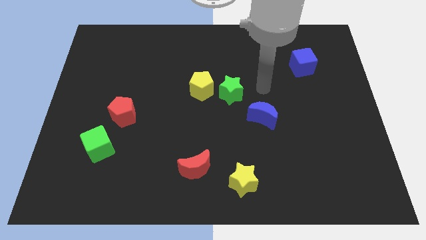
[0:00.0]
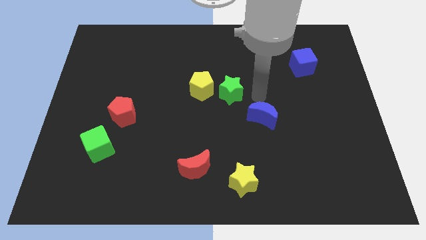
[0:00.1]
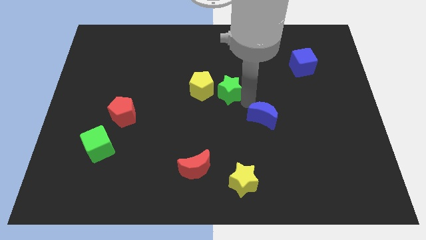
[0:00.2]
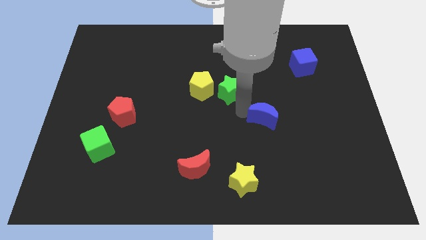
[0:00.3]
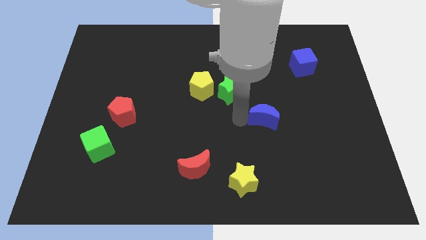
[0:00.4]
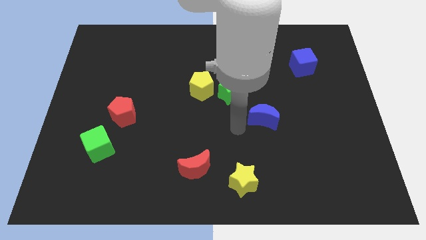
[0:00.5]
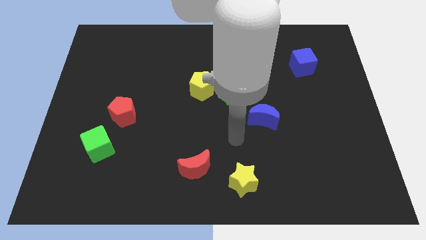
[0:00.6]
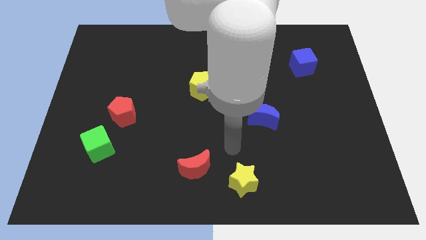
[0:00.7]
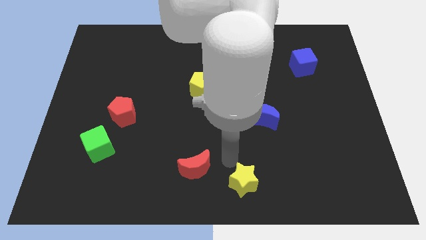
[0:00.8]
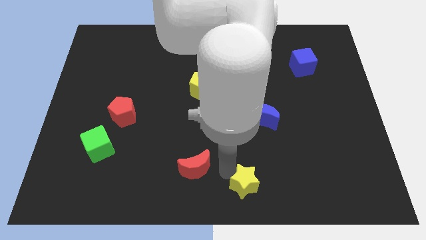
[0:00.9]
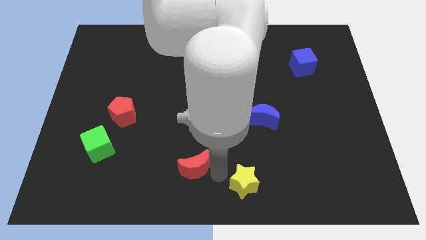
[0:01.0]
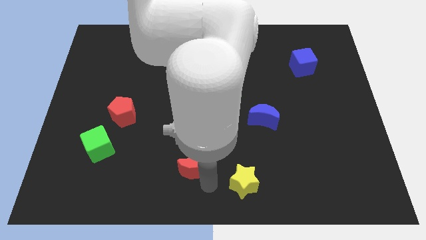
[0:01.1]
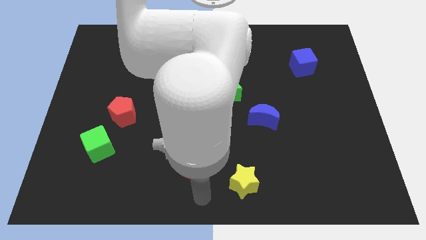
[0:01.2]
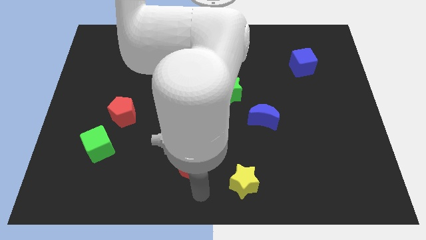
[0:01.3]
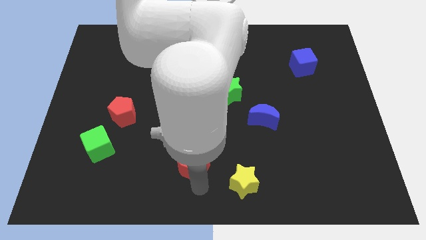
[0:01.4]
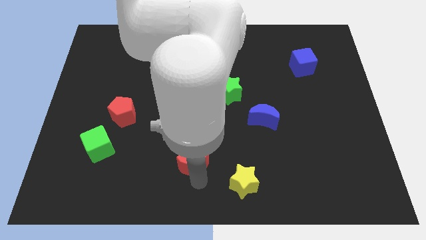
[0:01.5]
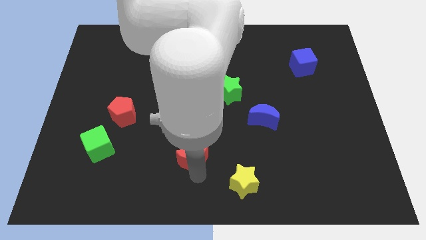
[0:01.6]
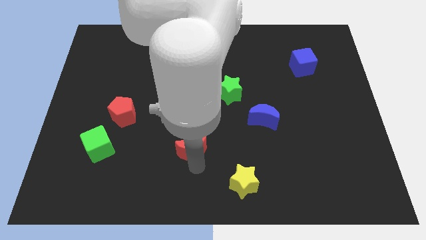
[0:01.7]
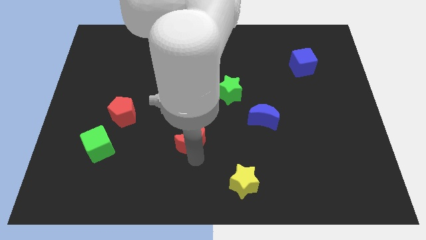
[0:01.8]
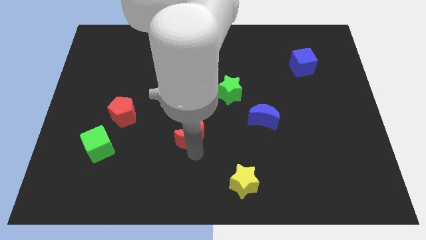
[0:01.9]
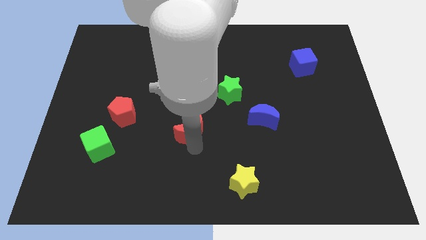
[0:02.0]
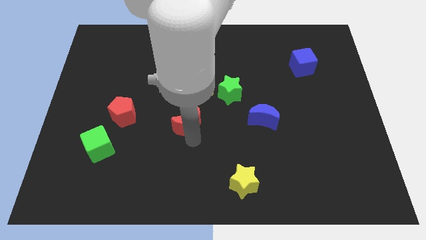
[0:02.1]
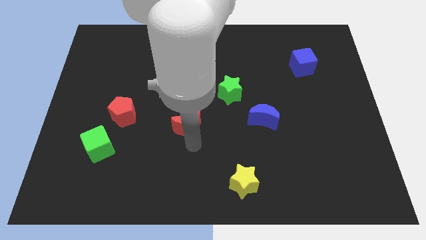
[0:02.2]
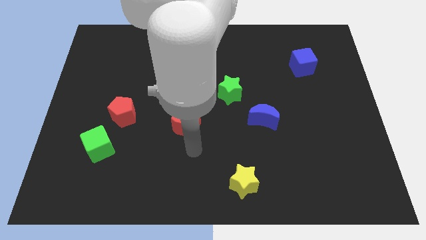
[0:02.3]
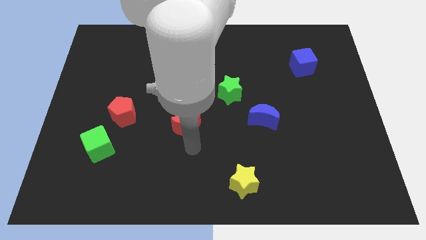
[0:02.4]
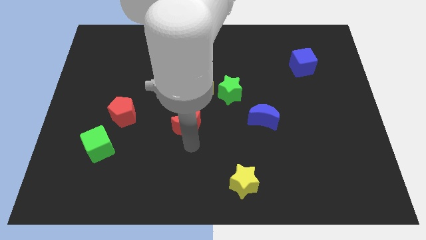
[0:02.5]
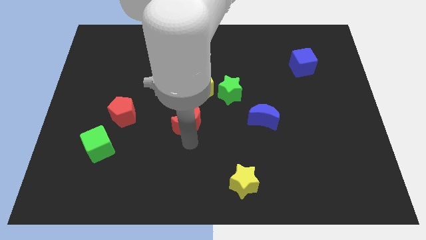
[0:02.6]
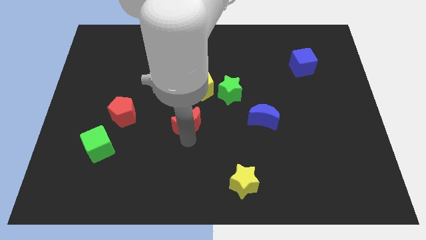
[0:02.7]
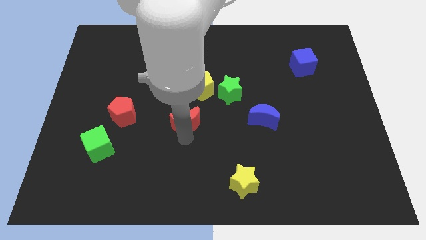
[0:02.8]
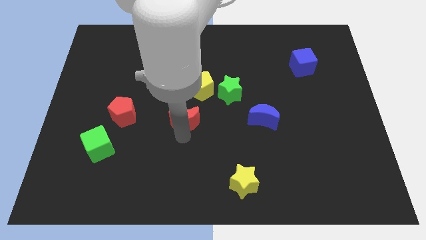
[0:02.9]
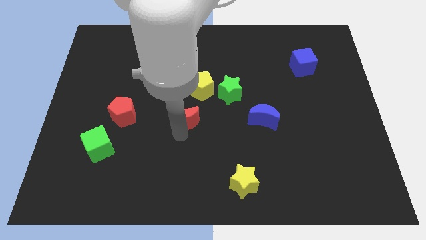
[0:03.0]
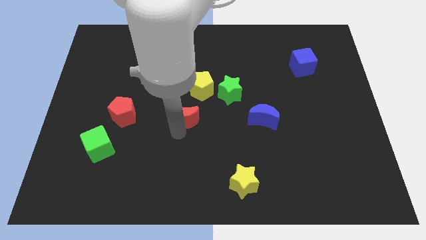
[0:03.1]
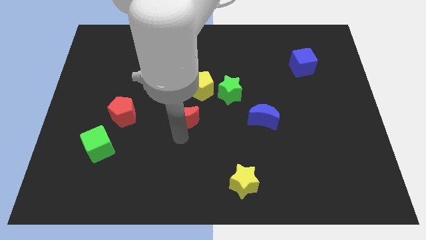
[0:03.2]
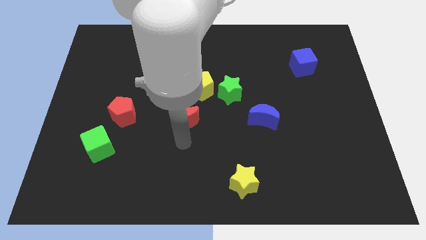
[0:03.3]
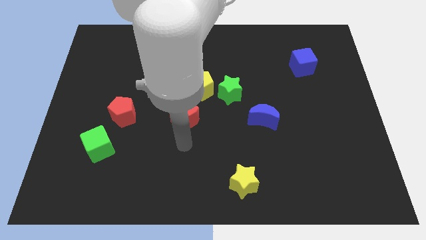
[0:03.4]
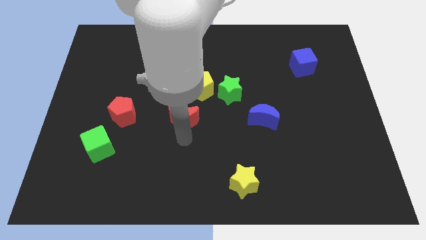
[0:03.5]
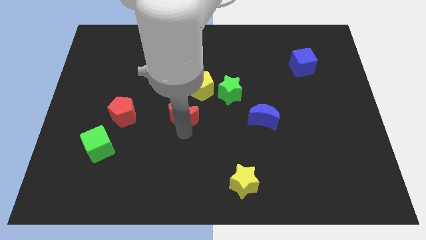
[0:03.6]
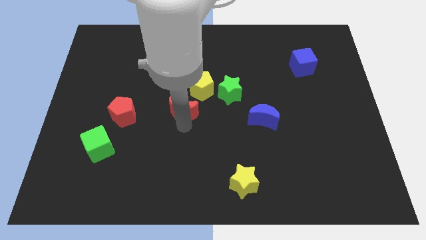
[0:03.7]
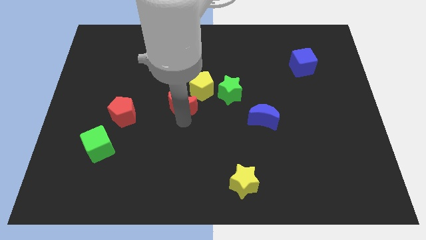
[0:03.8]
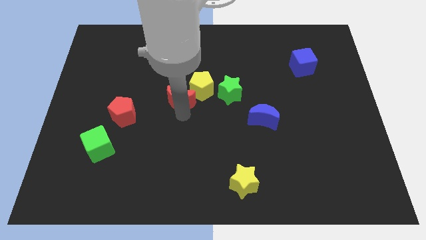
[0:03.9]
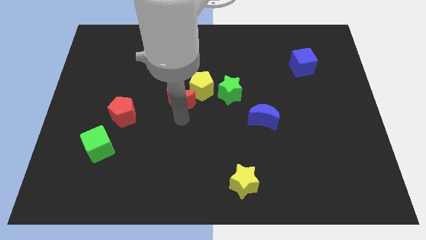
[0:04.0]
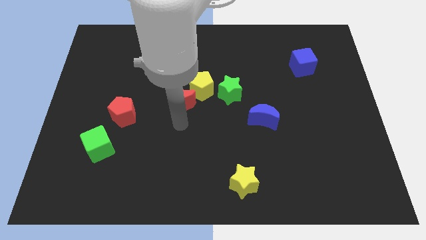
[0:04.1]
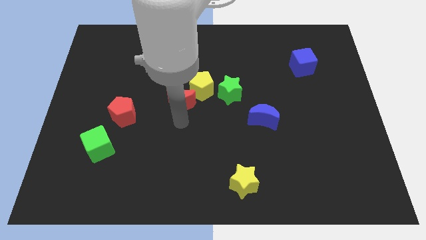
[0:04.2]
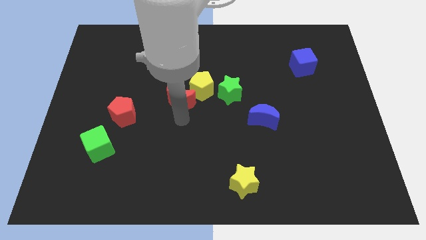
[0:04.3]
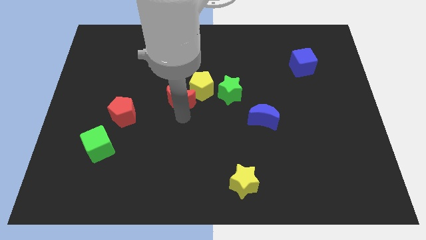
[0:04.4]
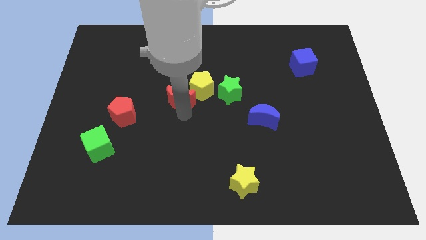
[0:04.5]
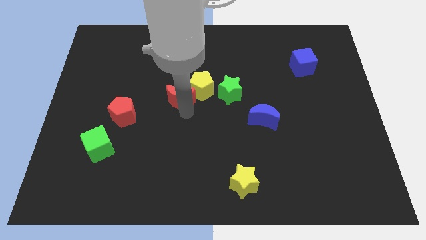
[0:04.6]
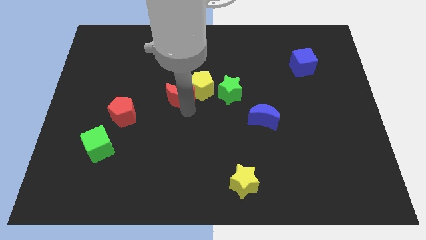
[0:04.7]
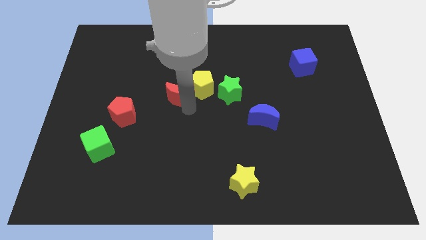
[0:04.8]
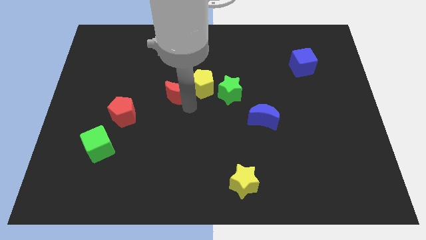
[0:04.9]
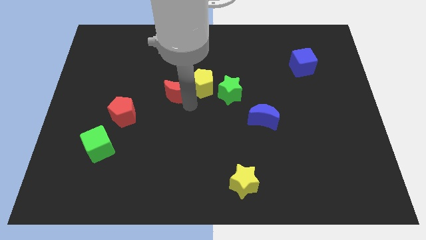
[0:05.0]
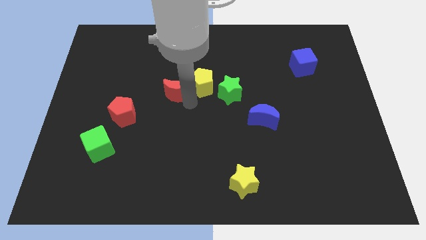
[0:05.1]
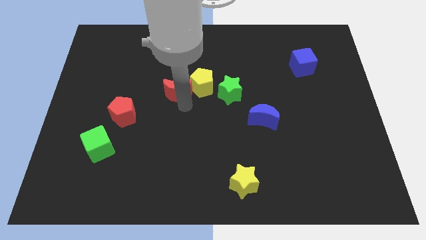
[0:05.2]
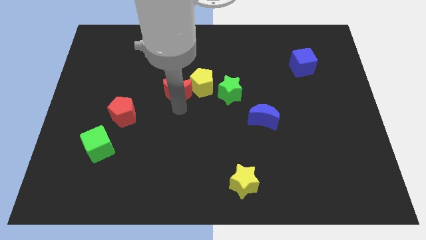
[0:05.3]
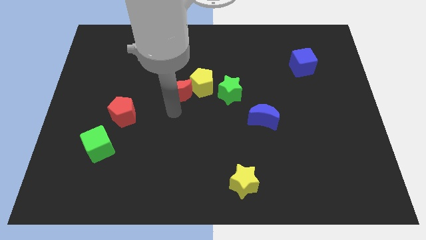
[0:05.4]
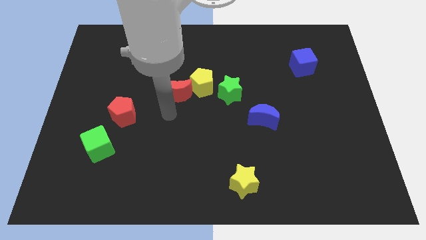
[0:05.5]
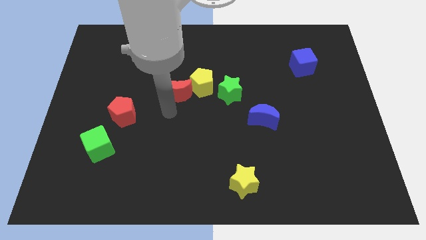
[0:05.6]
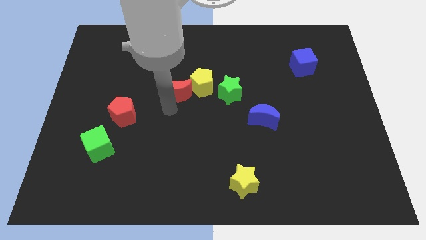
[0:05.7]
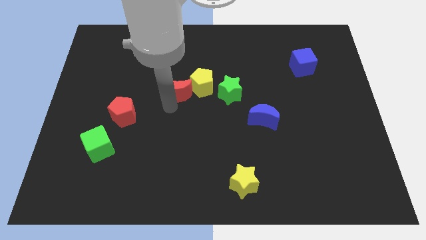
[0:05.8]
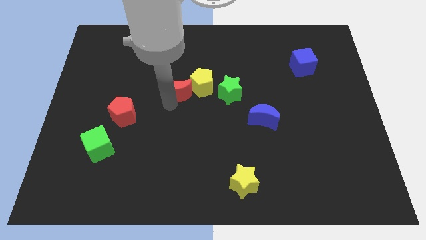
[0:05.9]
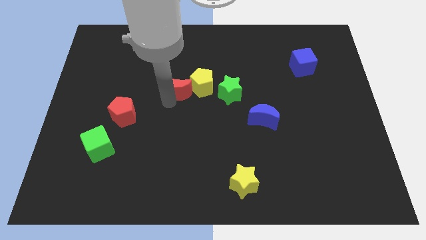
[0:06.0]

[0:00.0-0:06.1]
push the red moon upwards

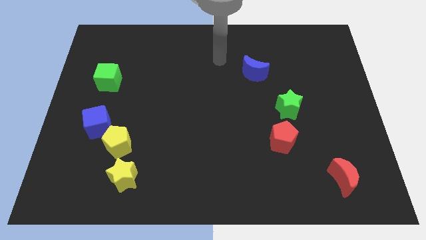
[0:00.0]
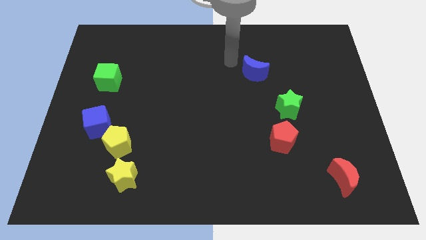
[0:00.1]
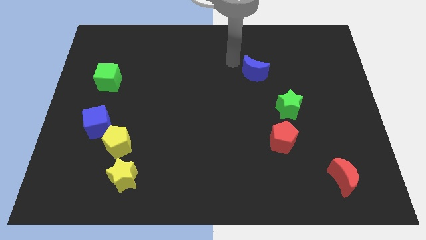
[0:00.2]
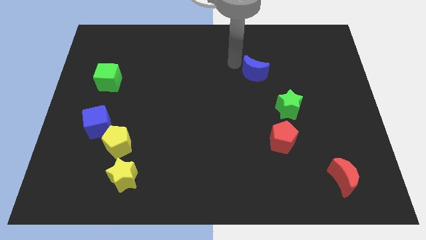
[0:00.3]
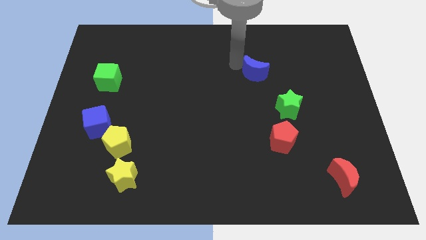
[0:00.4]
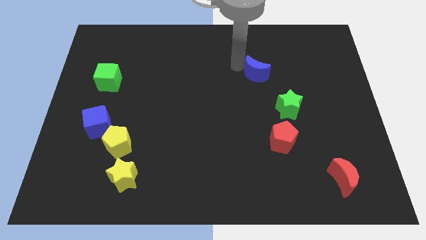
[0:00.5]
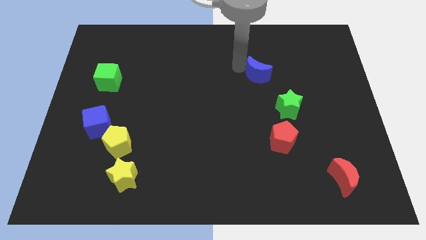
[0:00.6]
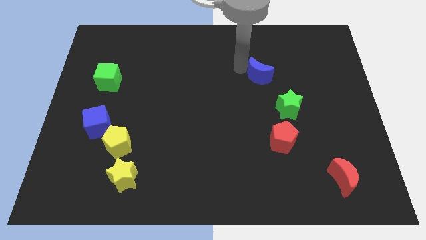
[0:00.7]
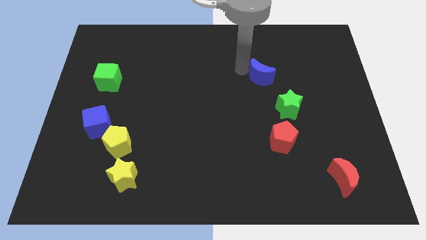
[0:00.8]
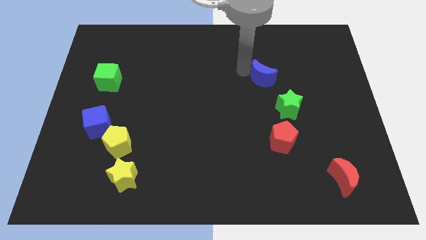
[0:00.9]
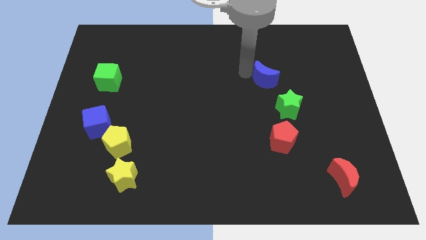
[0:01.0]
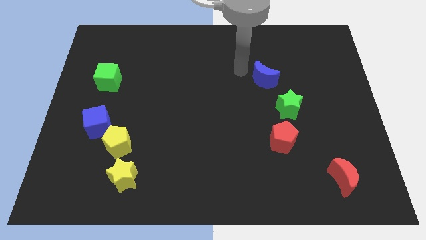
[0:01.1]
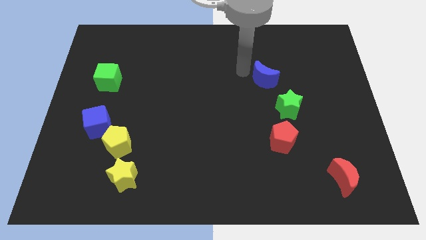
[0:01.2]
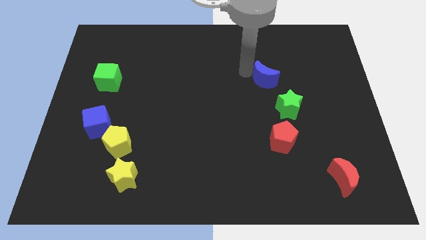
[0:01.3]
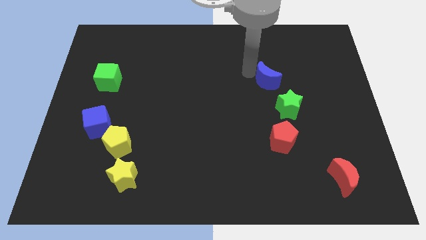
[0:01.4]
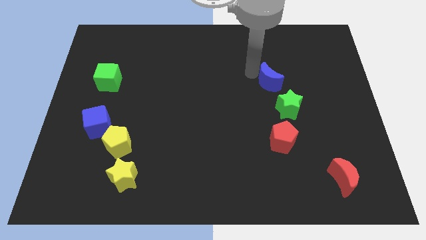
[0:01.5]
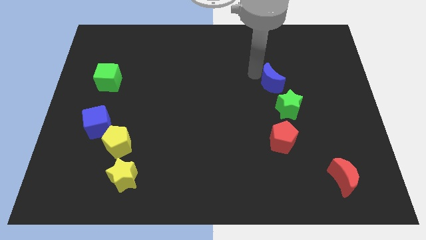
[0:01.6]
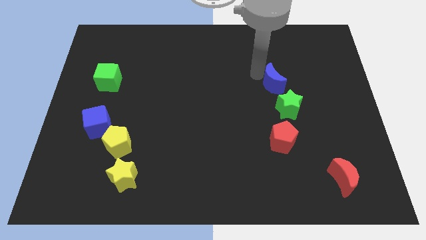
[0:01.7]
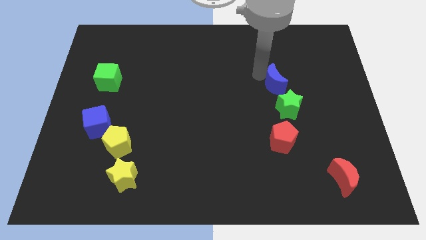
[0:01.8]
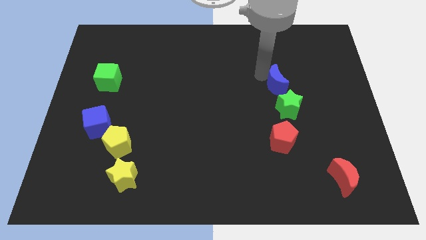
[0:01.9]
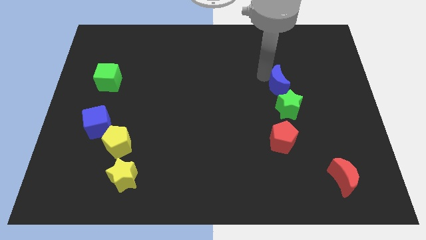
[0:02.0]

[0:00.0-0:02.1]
slide the blue moon slightly diagonally downwards and right
